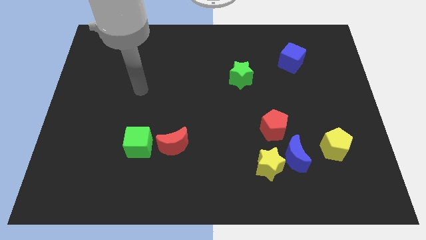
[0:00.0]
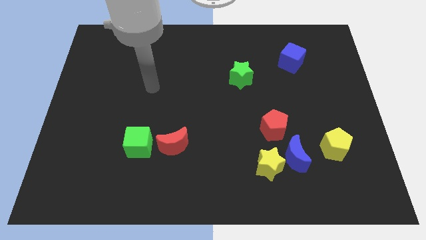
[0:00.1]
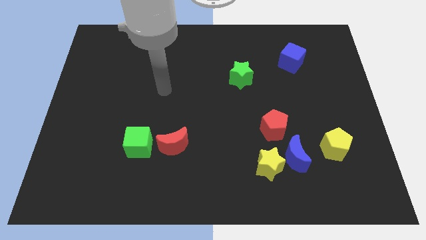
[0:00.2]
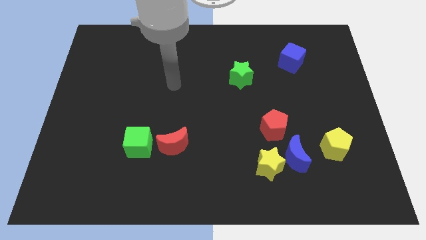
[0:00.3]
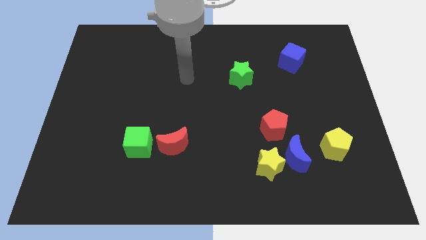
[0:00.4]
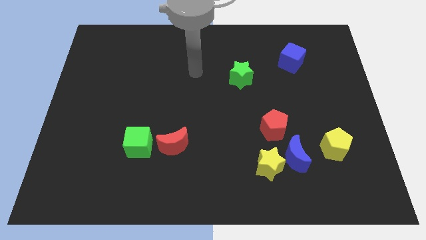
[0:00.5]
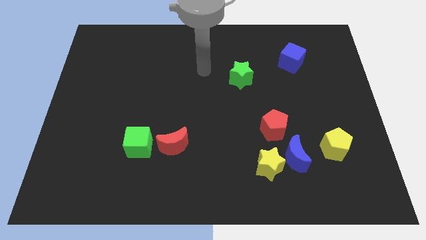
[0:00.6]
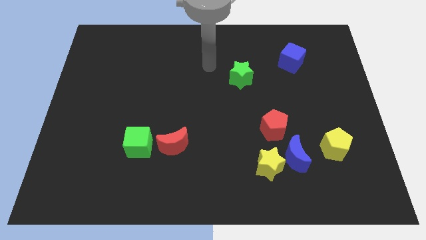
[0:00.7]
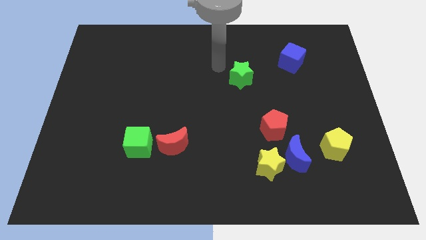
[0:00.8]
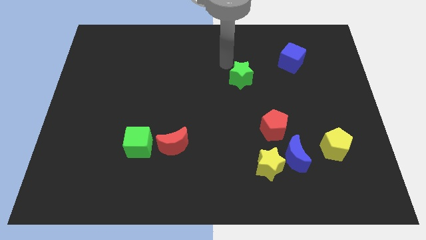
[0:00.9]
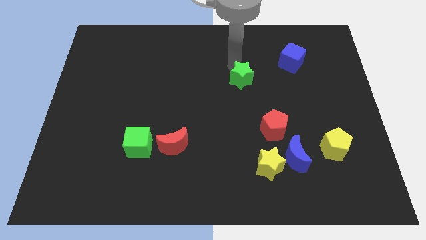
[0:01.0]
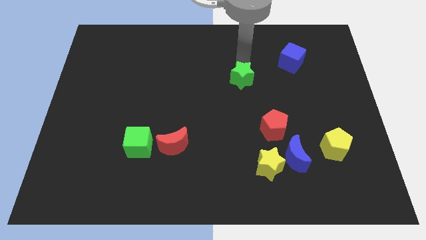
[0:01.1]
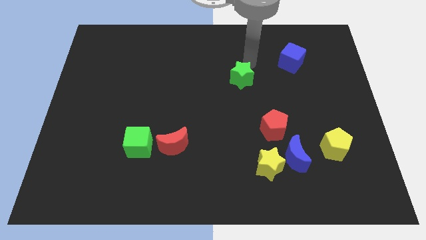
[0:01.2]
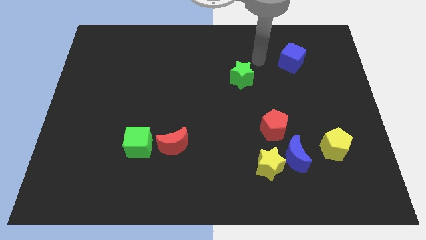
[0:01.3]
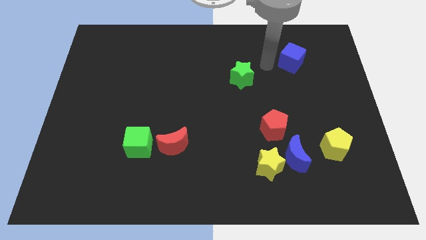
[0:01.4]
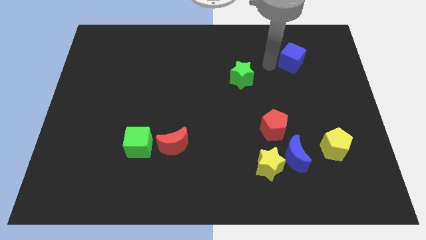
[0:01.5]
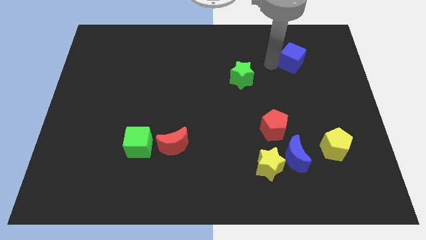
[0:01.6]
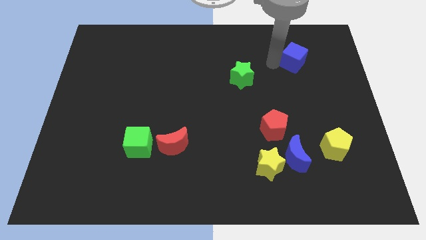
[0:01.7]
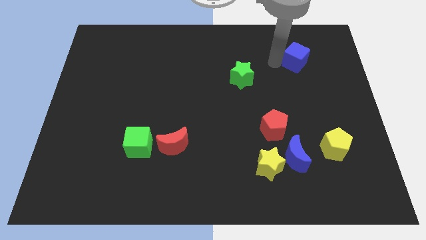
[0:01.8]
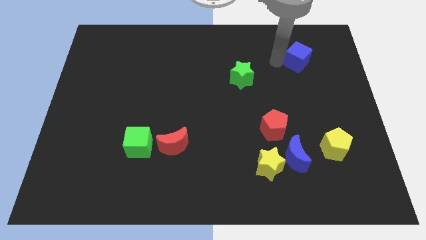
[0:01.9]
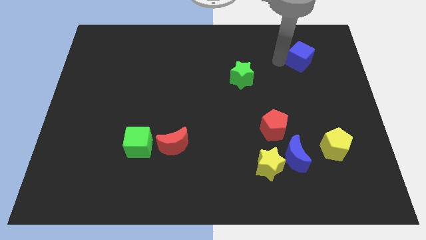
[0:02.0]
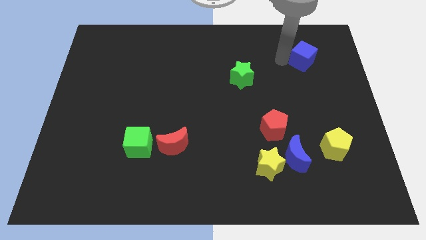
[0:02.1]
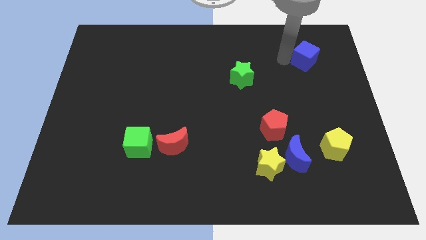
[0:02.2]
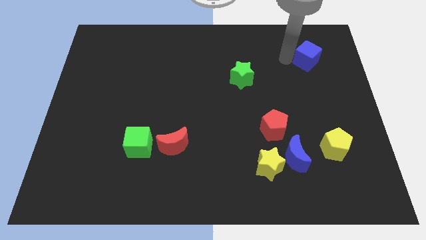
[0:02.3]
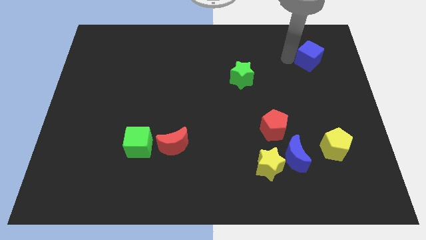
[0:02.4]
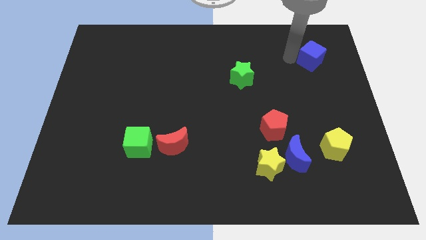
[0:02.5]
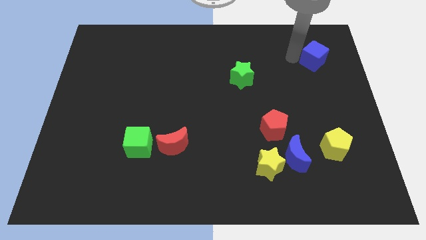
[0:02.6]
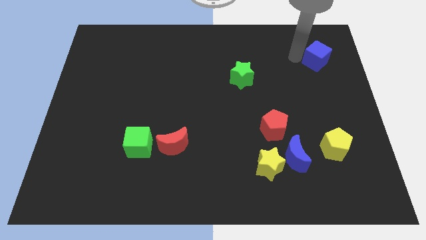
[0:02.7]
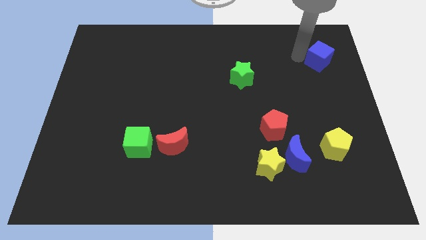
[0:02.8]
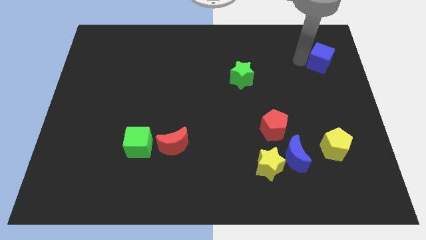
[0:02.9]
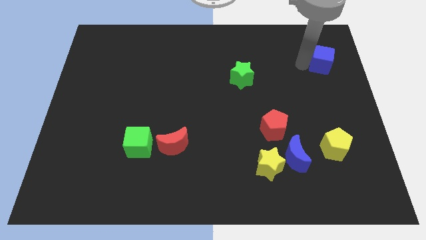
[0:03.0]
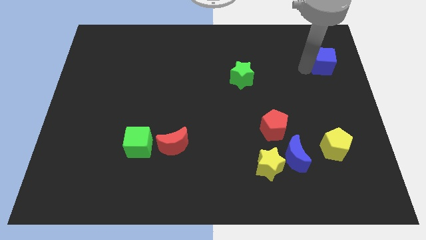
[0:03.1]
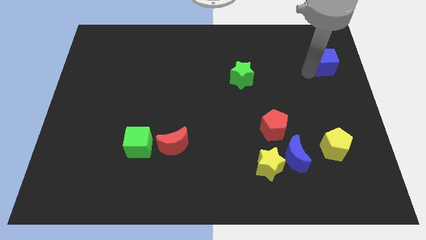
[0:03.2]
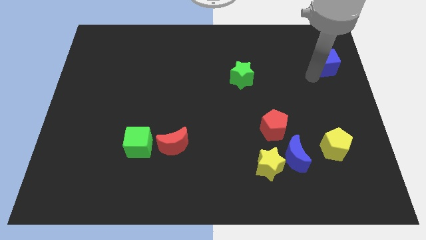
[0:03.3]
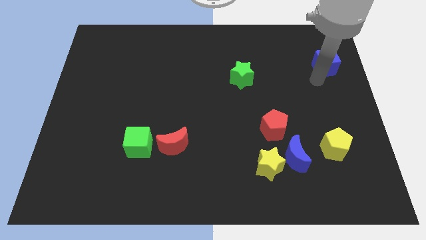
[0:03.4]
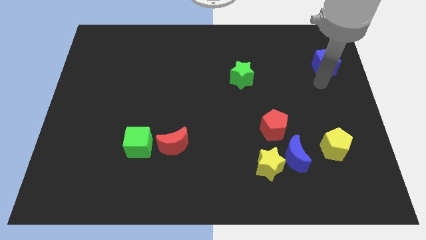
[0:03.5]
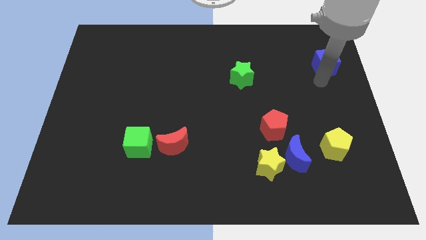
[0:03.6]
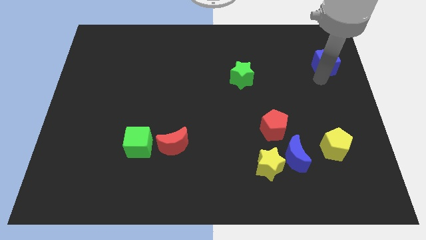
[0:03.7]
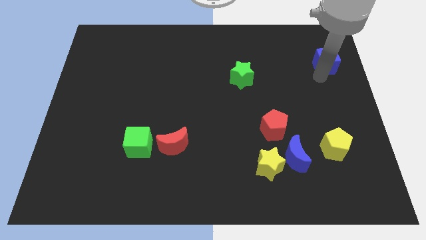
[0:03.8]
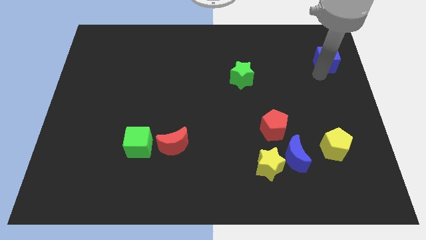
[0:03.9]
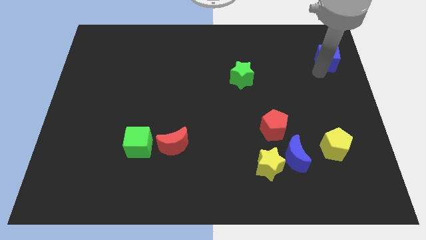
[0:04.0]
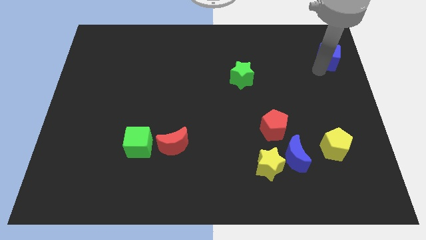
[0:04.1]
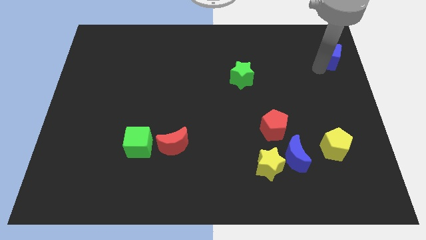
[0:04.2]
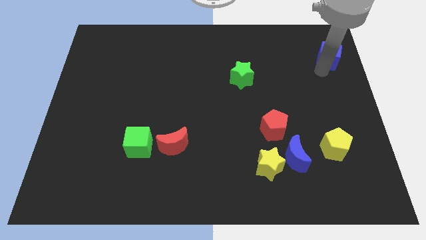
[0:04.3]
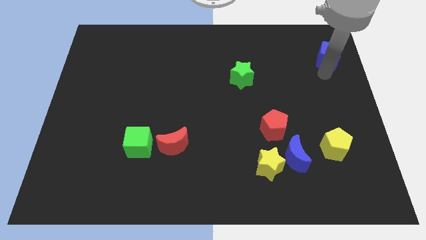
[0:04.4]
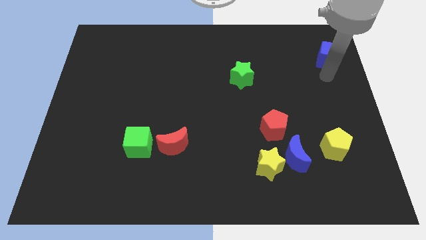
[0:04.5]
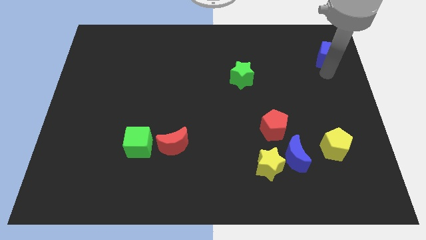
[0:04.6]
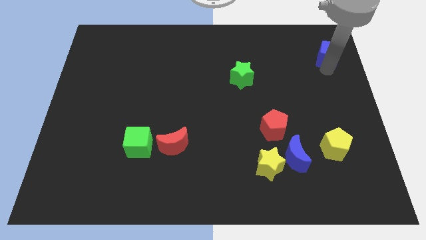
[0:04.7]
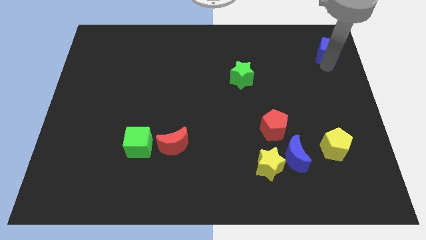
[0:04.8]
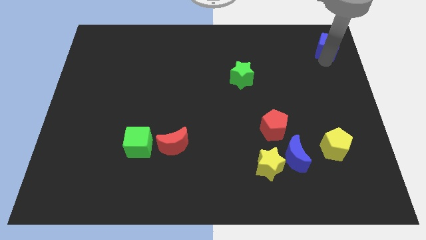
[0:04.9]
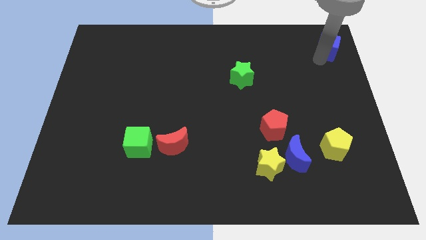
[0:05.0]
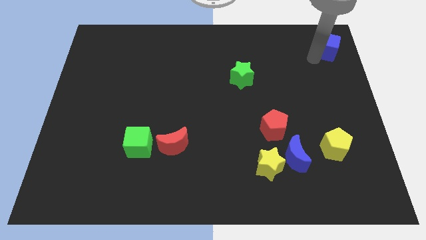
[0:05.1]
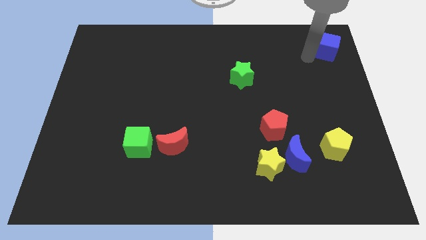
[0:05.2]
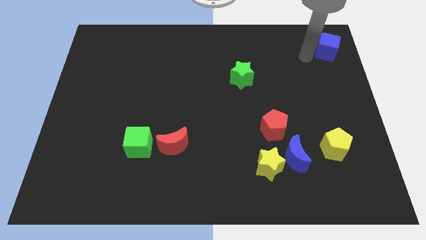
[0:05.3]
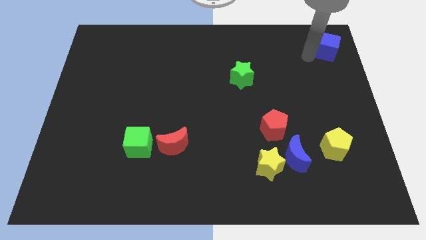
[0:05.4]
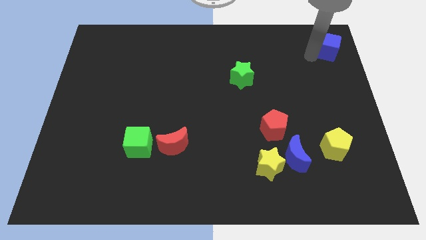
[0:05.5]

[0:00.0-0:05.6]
push the blue cube to the top right corner

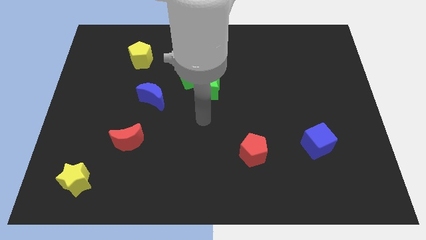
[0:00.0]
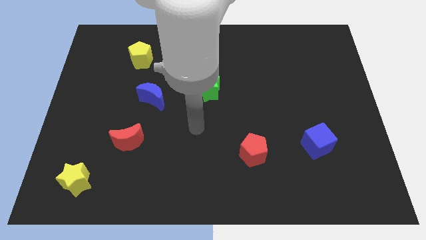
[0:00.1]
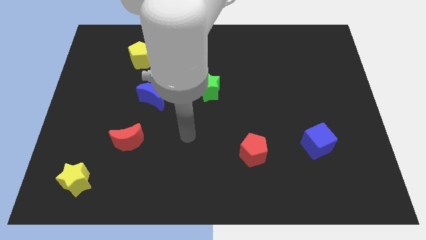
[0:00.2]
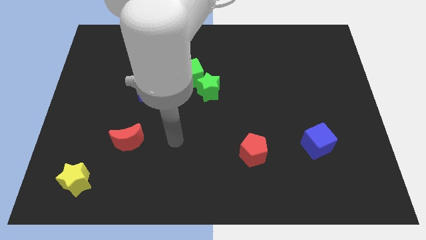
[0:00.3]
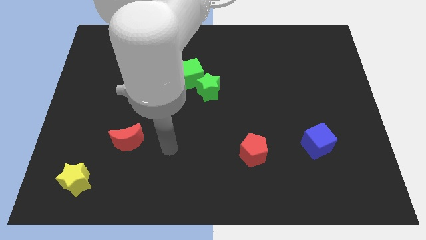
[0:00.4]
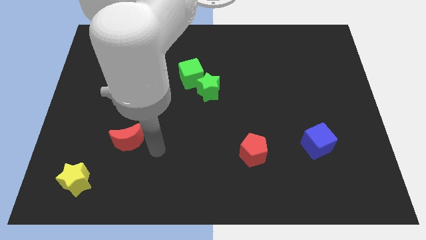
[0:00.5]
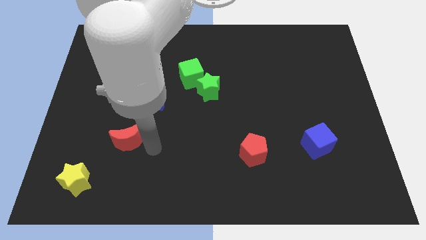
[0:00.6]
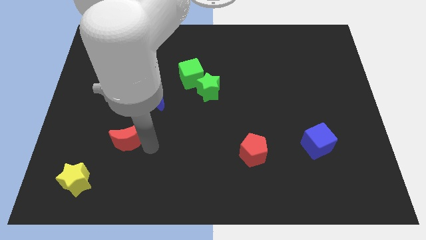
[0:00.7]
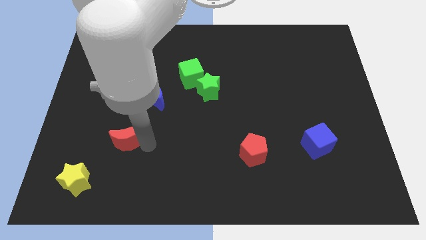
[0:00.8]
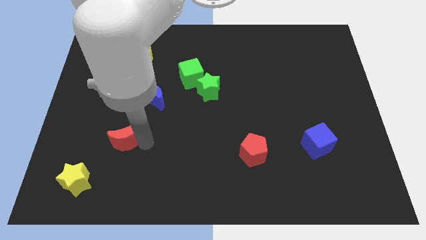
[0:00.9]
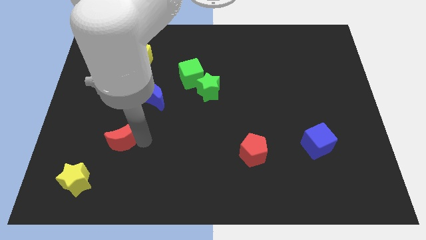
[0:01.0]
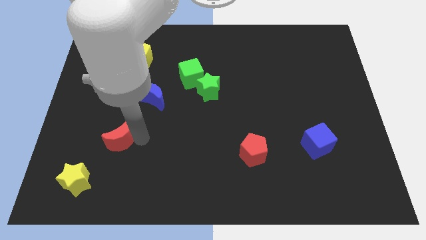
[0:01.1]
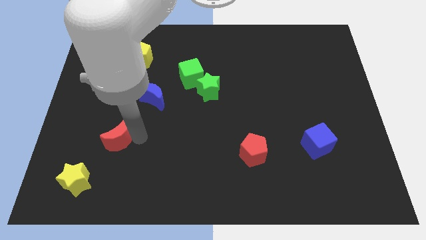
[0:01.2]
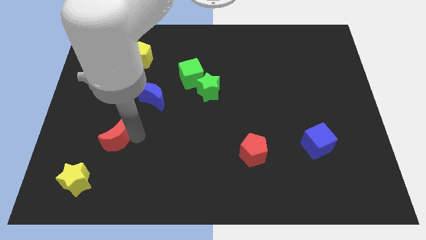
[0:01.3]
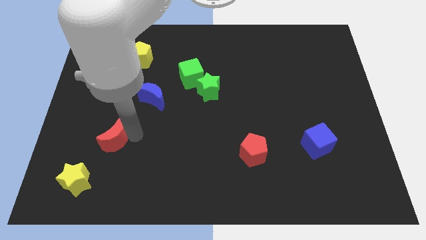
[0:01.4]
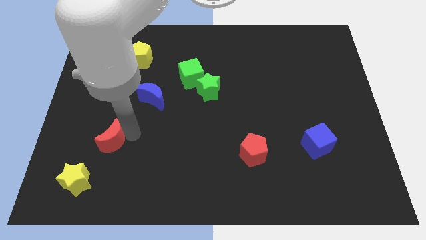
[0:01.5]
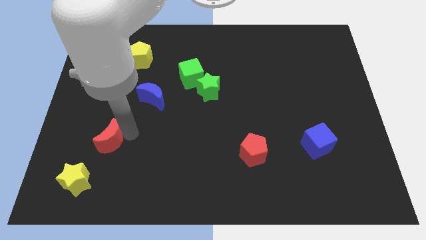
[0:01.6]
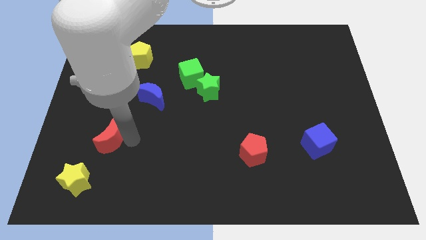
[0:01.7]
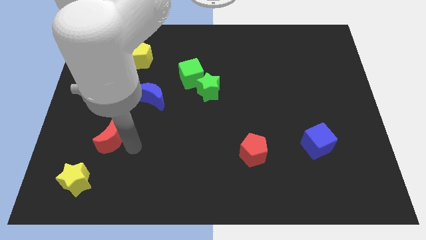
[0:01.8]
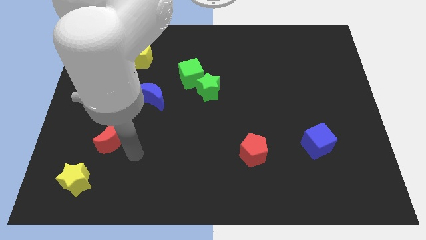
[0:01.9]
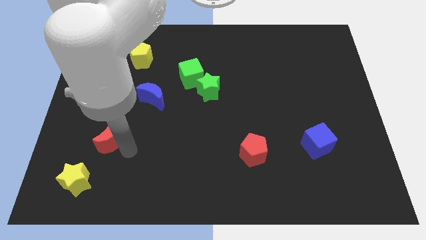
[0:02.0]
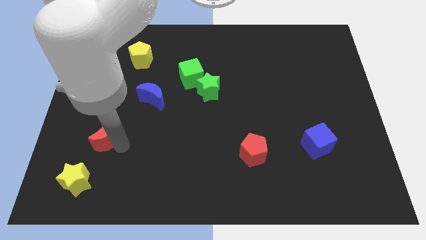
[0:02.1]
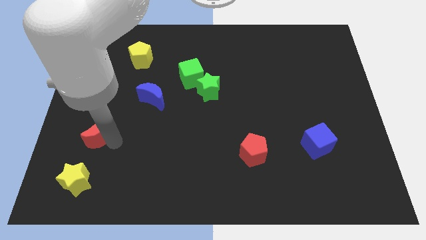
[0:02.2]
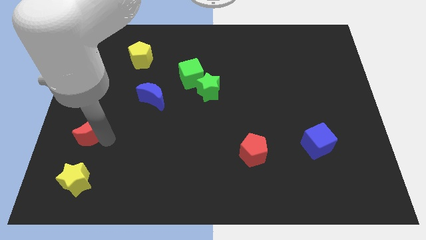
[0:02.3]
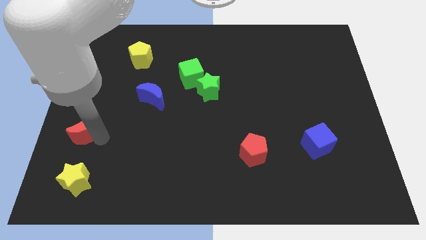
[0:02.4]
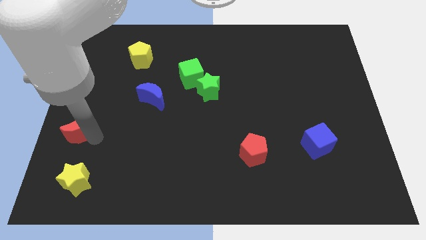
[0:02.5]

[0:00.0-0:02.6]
put the red moon to the center left
